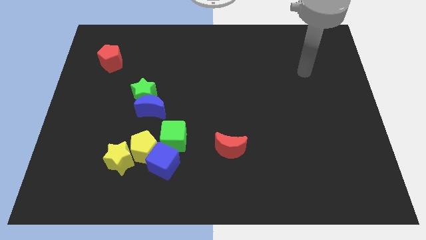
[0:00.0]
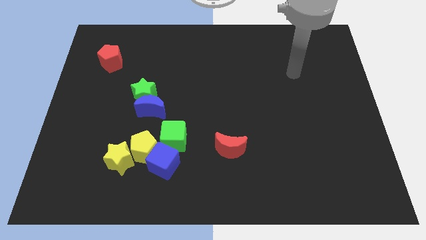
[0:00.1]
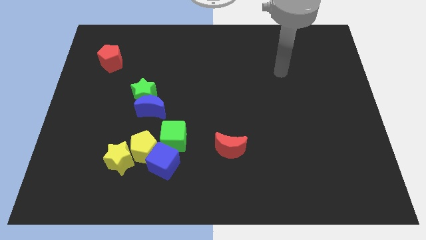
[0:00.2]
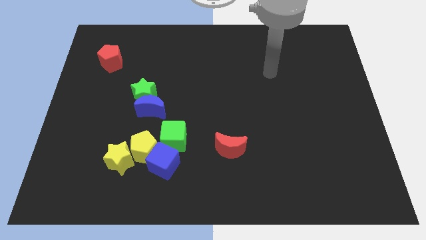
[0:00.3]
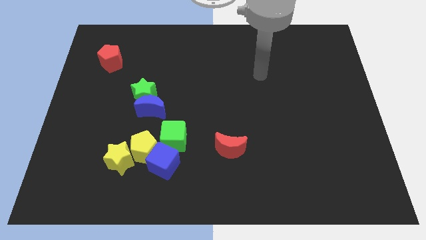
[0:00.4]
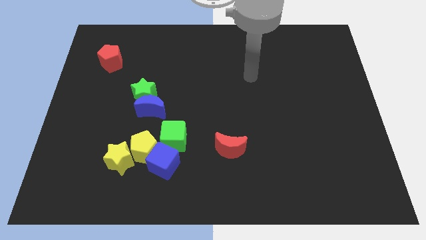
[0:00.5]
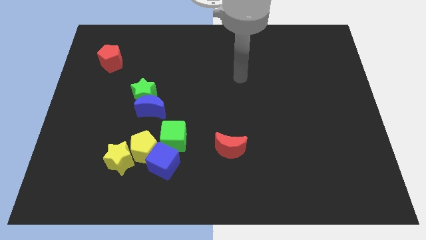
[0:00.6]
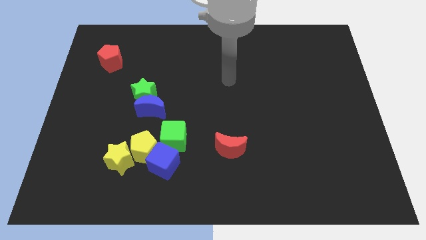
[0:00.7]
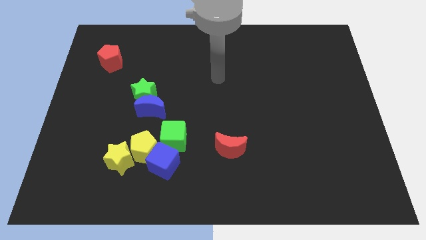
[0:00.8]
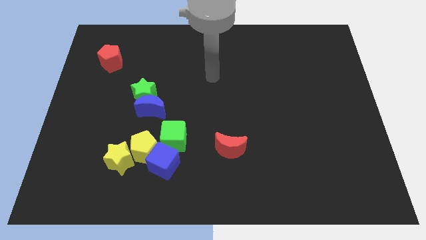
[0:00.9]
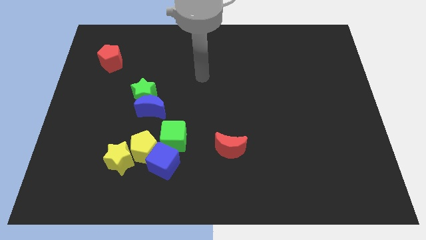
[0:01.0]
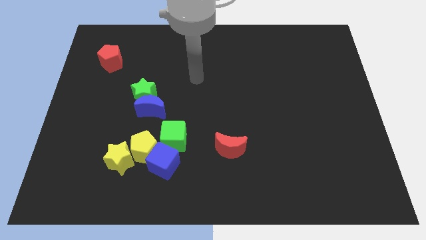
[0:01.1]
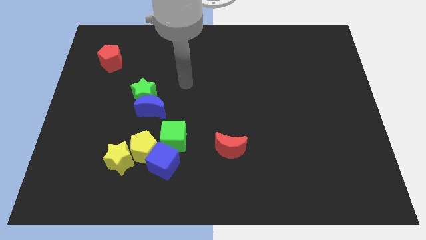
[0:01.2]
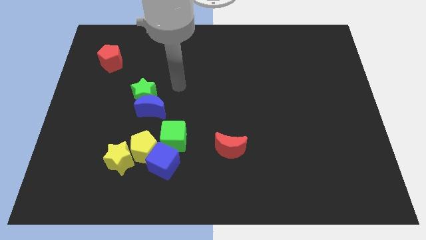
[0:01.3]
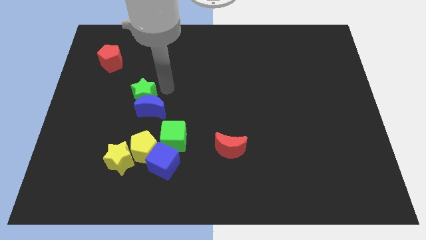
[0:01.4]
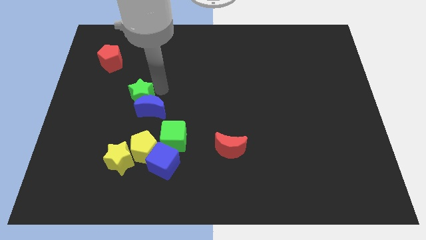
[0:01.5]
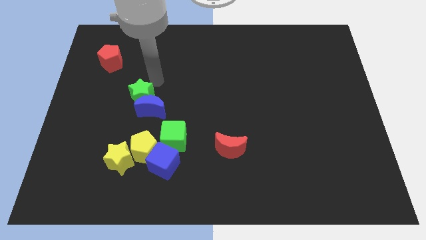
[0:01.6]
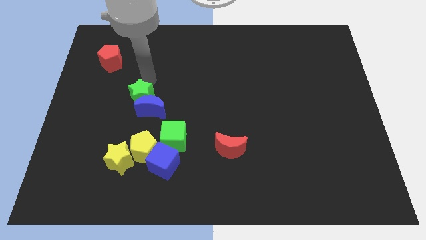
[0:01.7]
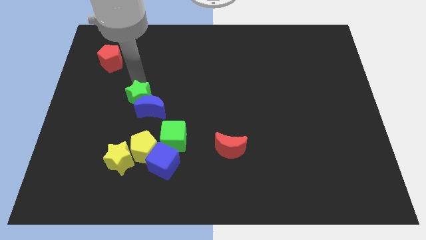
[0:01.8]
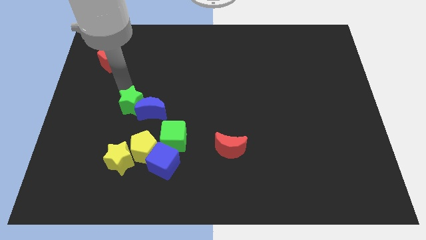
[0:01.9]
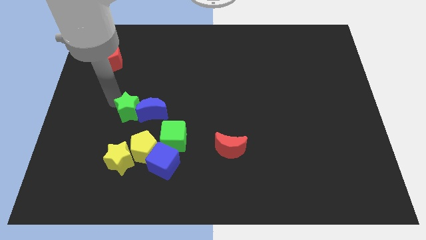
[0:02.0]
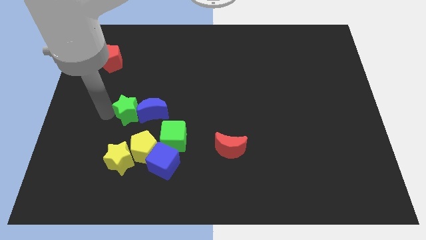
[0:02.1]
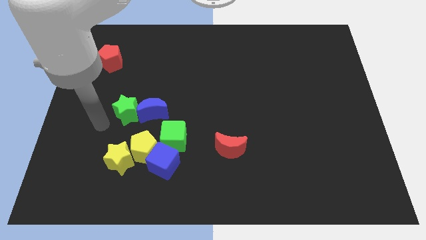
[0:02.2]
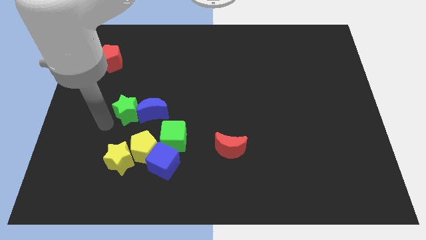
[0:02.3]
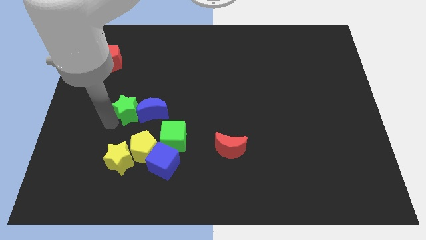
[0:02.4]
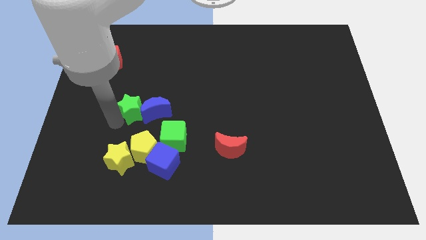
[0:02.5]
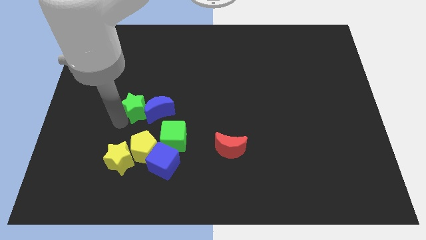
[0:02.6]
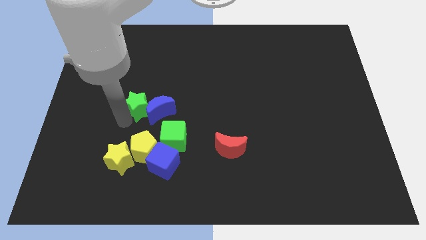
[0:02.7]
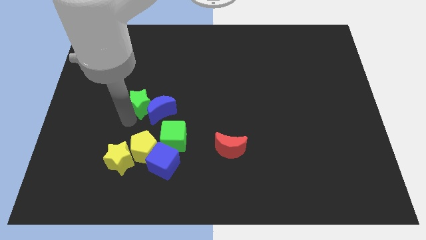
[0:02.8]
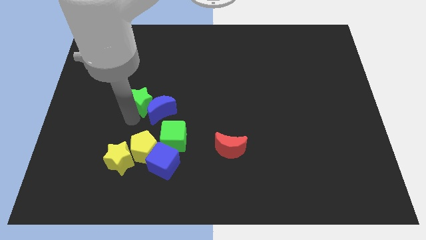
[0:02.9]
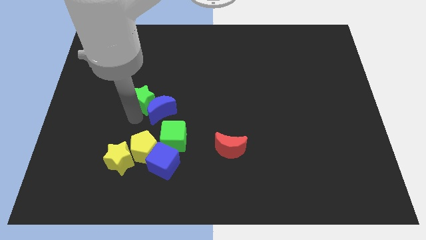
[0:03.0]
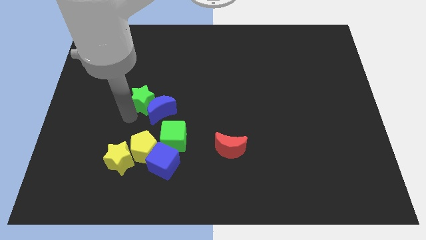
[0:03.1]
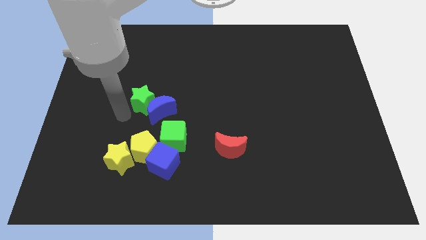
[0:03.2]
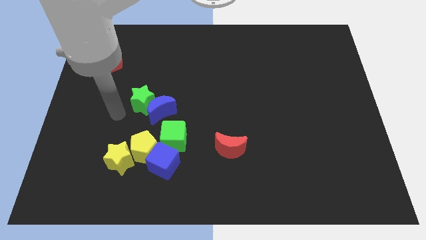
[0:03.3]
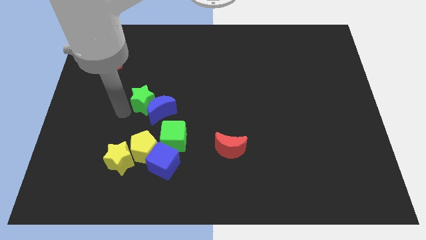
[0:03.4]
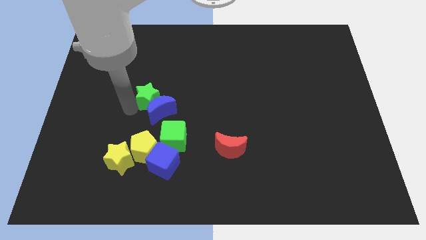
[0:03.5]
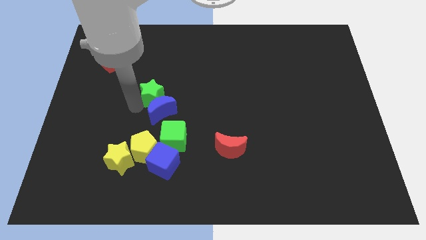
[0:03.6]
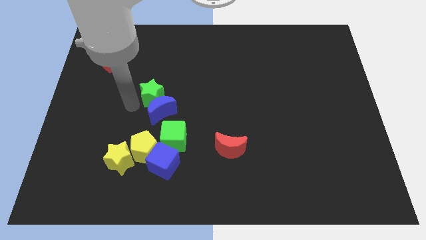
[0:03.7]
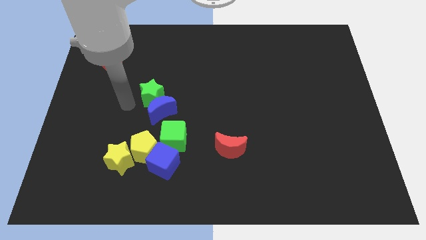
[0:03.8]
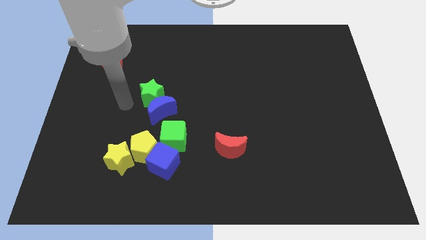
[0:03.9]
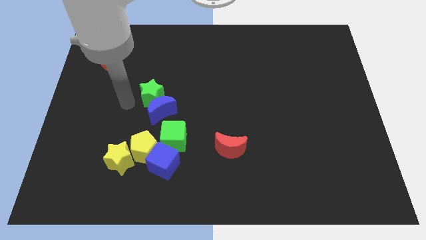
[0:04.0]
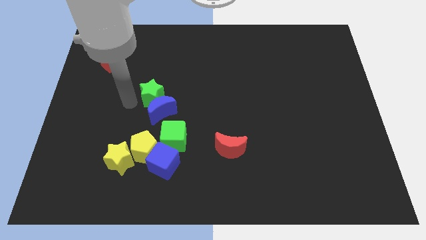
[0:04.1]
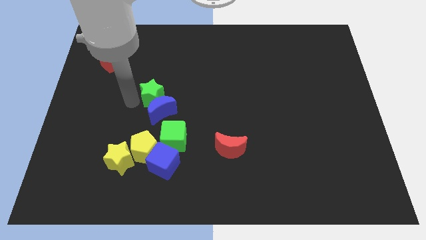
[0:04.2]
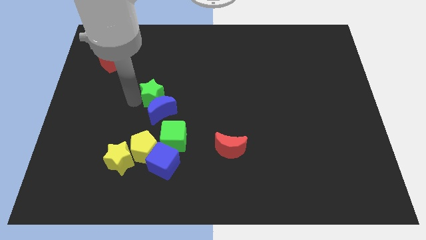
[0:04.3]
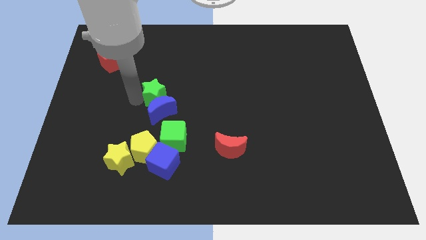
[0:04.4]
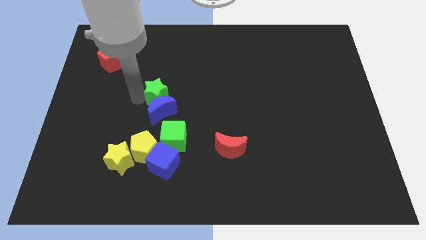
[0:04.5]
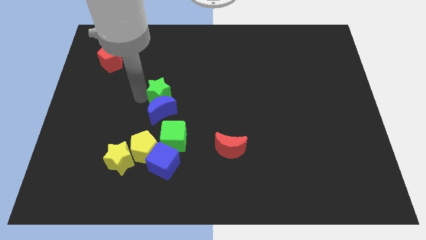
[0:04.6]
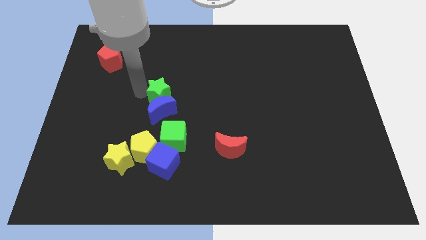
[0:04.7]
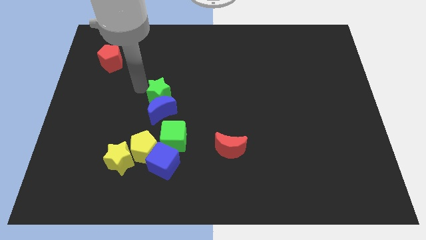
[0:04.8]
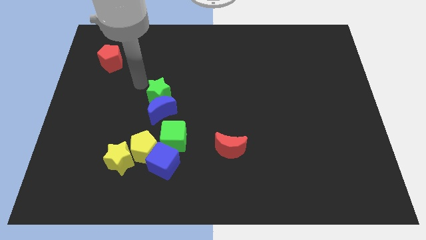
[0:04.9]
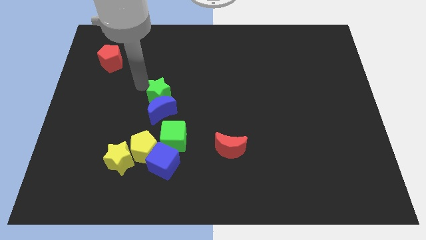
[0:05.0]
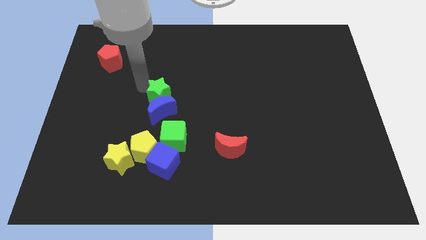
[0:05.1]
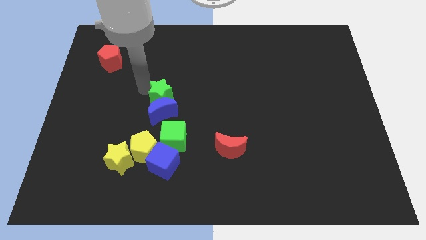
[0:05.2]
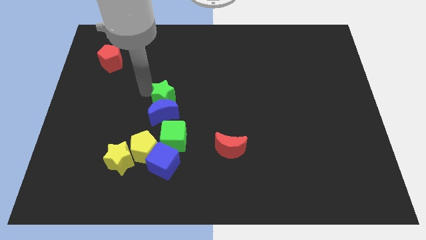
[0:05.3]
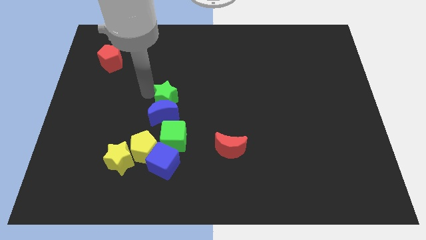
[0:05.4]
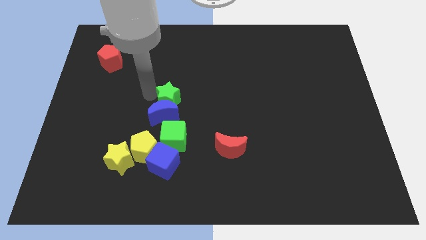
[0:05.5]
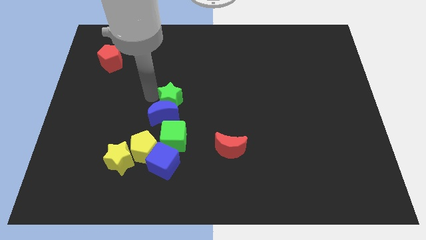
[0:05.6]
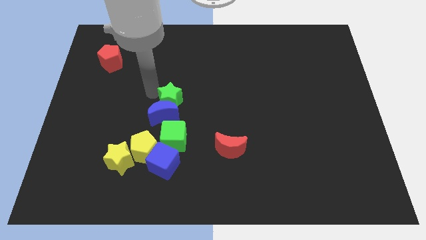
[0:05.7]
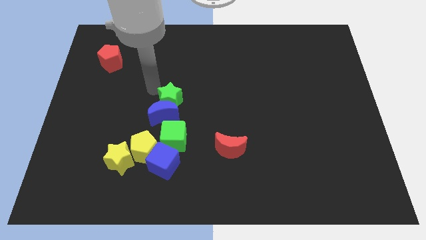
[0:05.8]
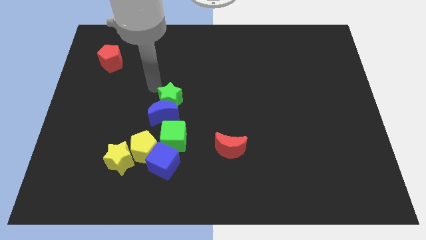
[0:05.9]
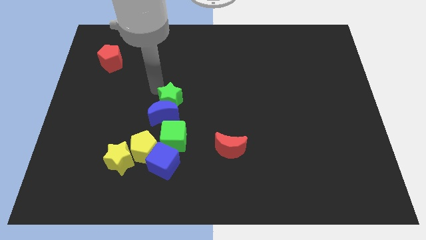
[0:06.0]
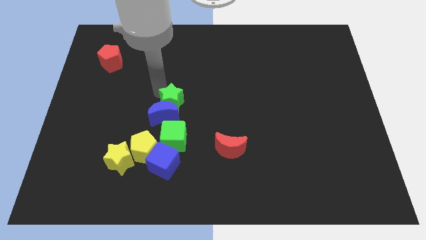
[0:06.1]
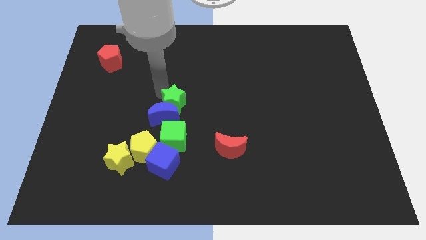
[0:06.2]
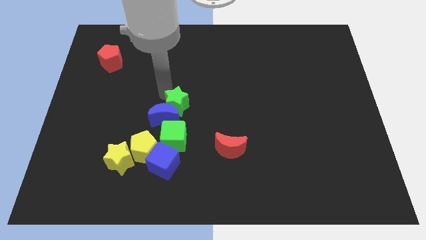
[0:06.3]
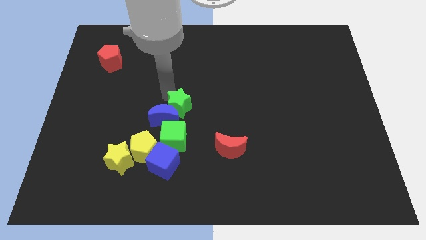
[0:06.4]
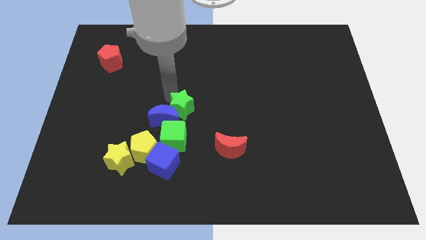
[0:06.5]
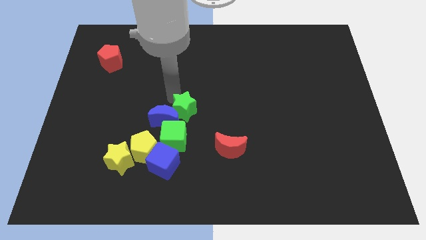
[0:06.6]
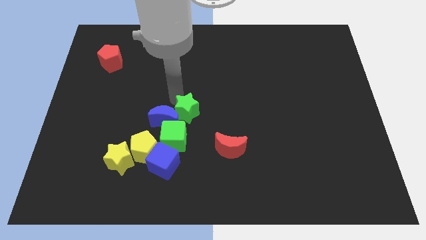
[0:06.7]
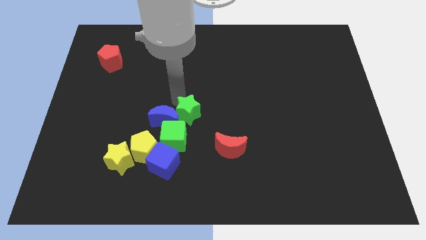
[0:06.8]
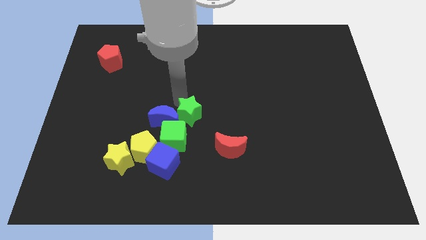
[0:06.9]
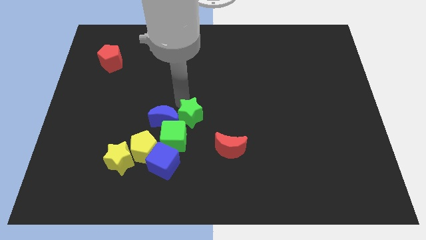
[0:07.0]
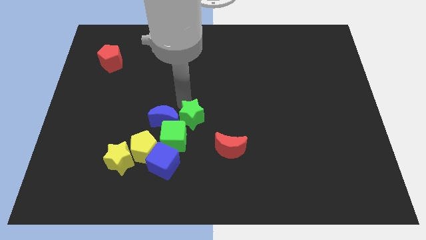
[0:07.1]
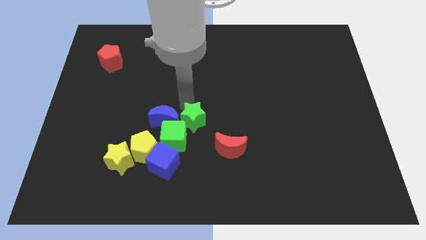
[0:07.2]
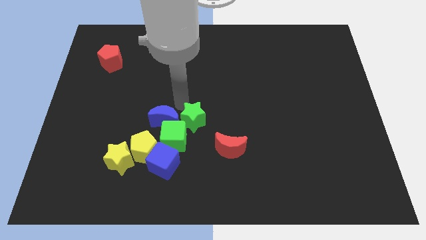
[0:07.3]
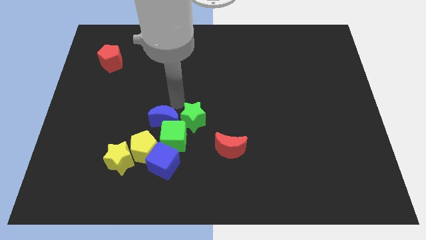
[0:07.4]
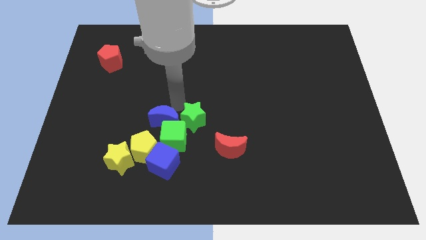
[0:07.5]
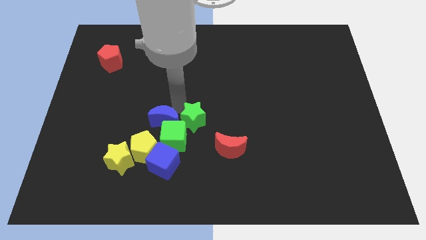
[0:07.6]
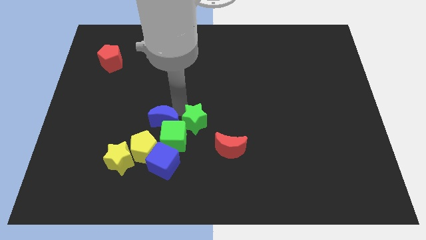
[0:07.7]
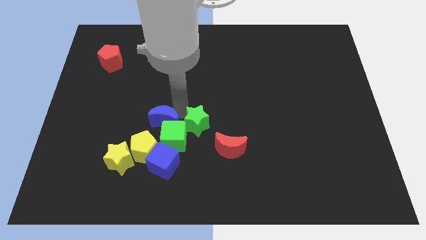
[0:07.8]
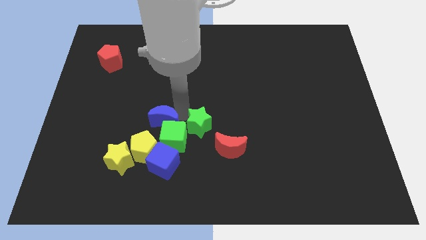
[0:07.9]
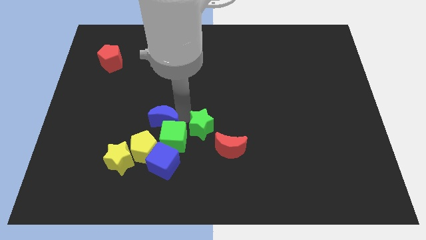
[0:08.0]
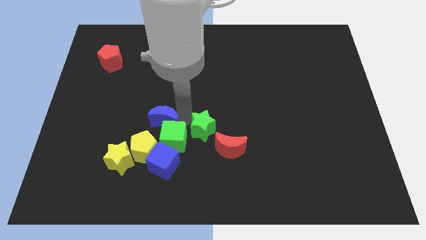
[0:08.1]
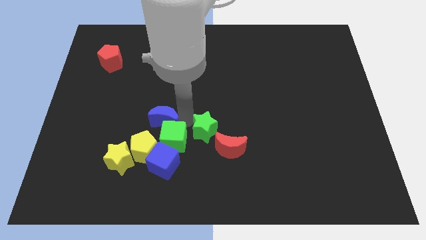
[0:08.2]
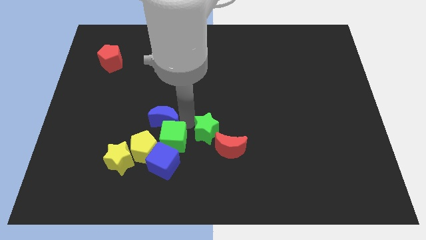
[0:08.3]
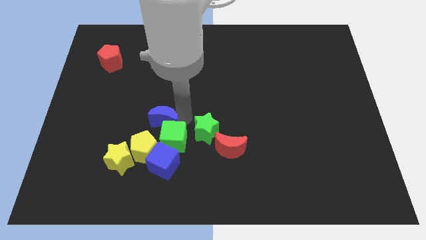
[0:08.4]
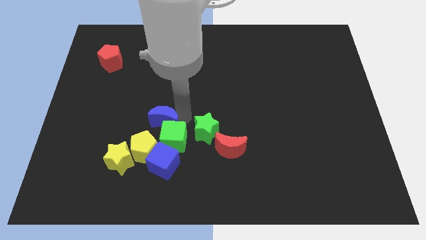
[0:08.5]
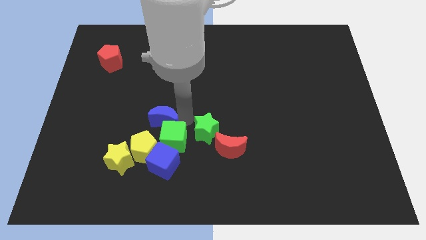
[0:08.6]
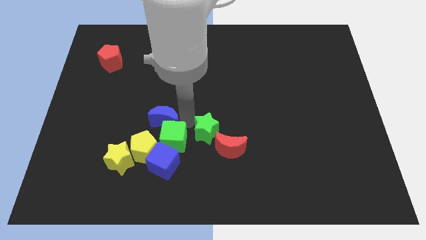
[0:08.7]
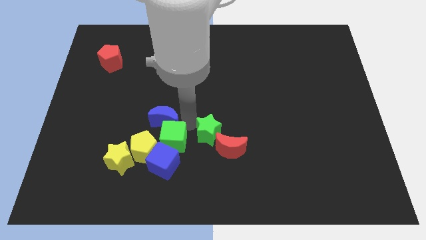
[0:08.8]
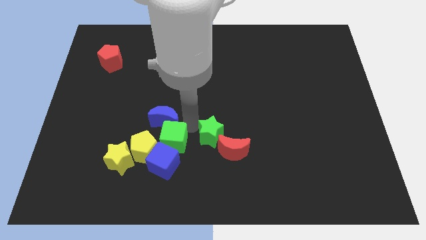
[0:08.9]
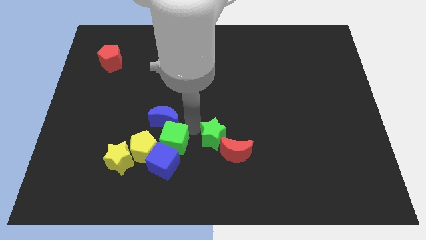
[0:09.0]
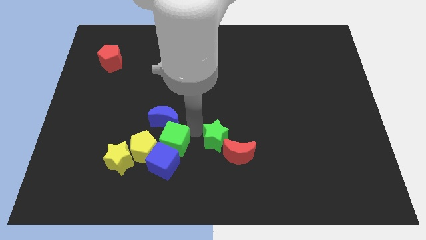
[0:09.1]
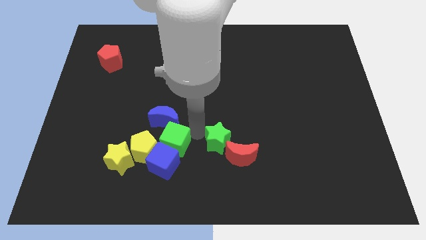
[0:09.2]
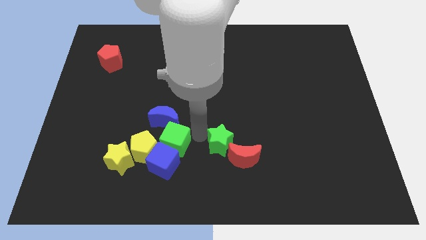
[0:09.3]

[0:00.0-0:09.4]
move the green star towards the red moon
